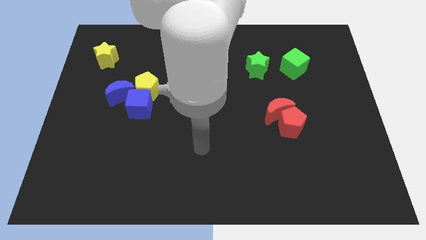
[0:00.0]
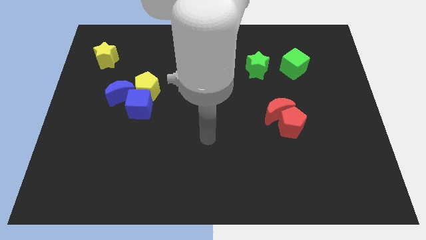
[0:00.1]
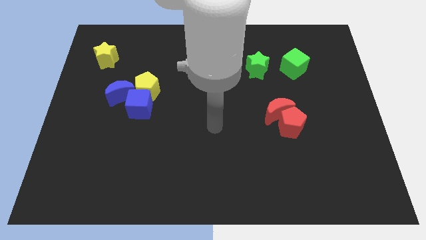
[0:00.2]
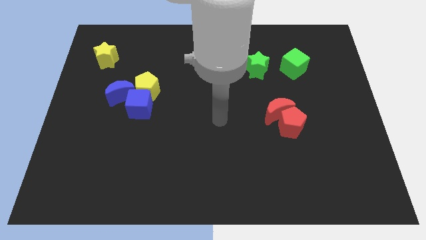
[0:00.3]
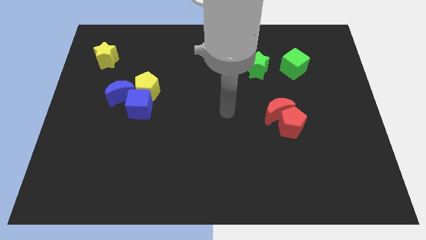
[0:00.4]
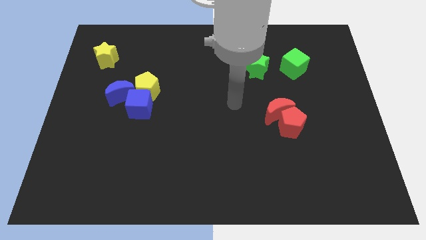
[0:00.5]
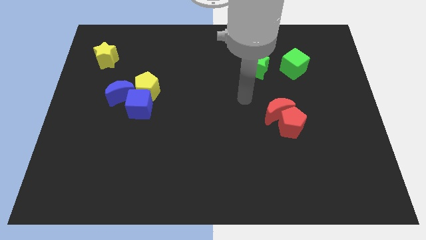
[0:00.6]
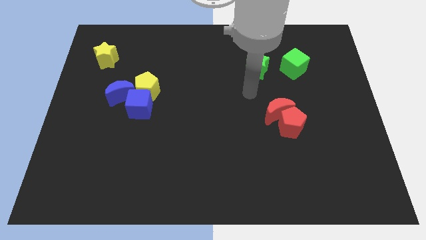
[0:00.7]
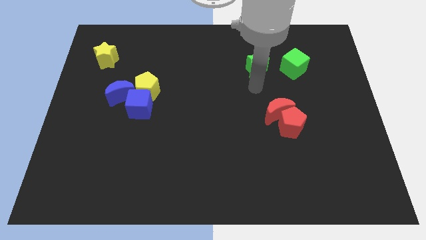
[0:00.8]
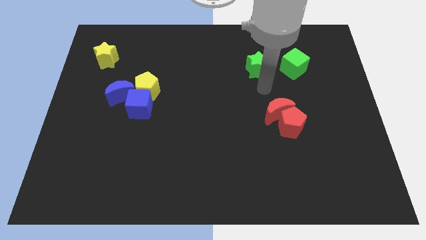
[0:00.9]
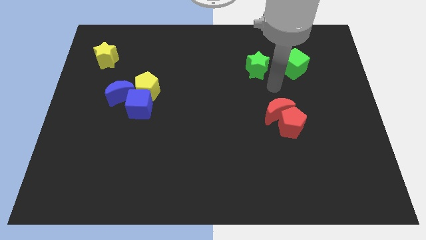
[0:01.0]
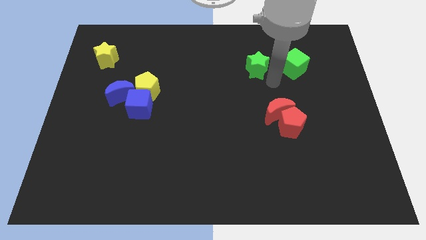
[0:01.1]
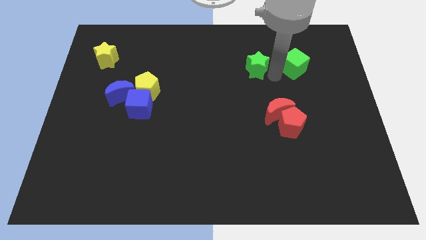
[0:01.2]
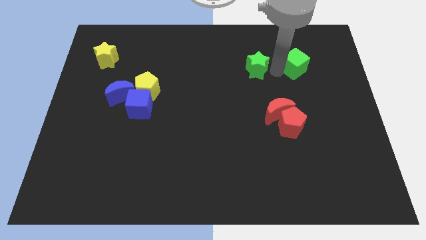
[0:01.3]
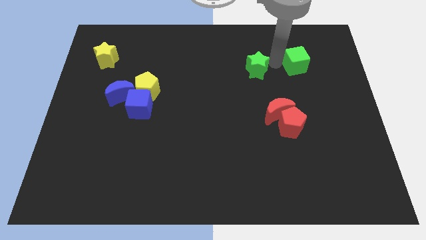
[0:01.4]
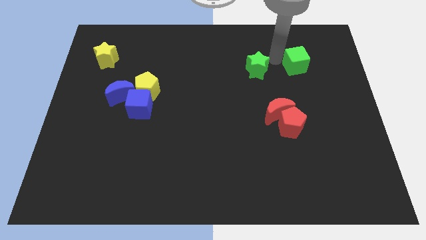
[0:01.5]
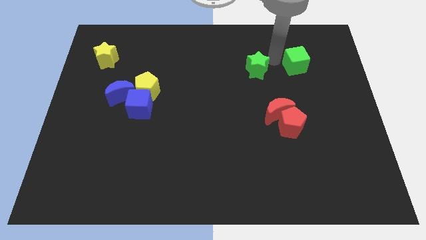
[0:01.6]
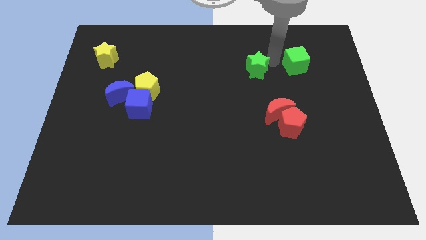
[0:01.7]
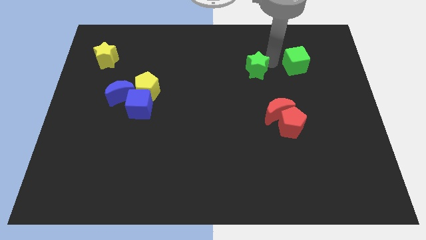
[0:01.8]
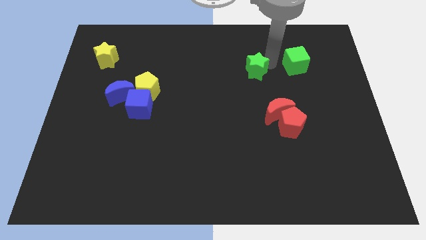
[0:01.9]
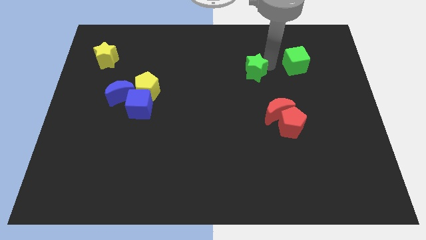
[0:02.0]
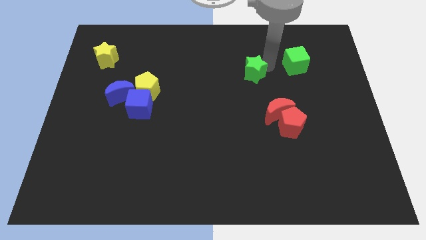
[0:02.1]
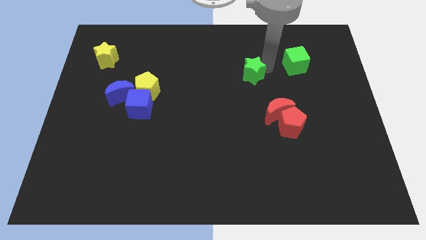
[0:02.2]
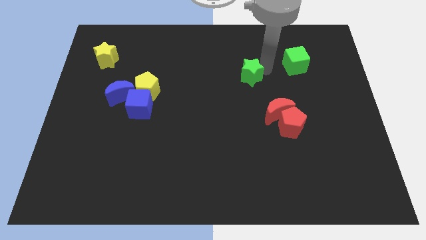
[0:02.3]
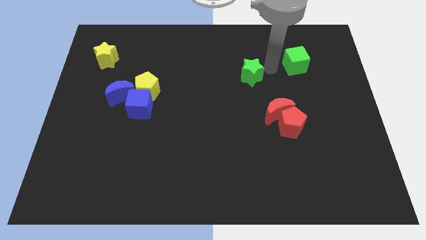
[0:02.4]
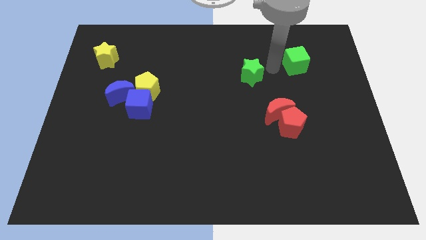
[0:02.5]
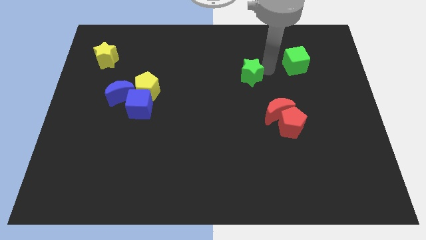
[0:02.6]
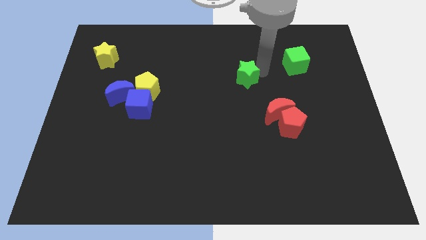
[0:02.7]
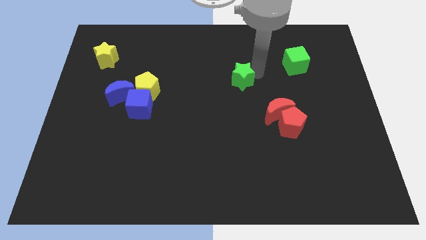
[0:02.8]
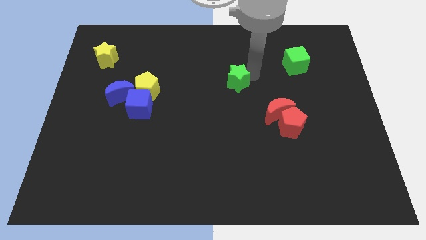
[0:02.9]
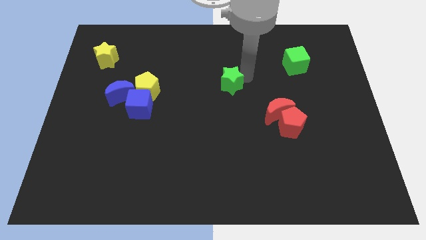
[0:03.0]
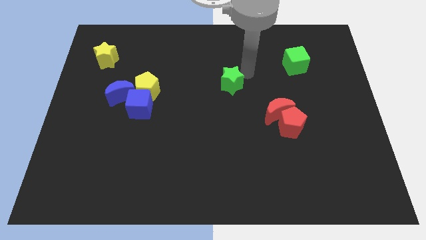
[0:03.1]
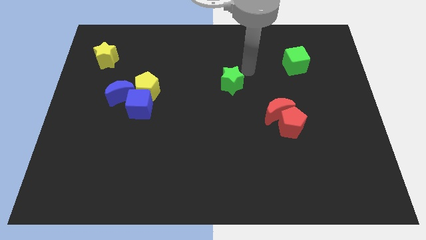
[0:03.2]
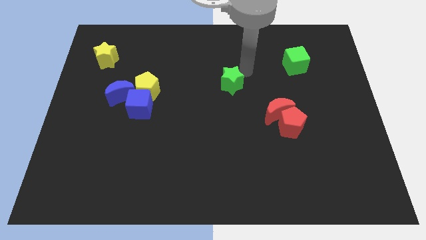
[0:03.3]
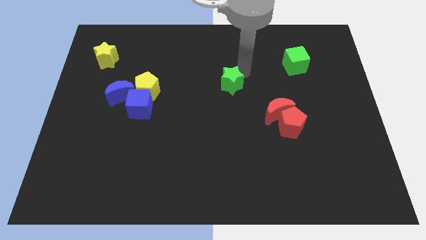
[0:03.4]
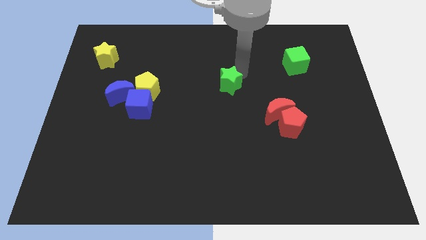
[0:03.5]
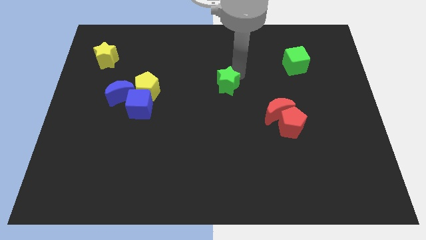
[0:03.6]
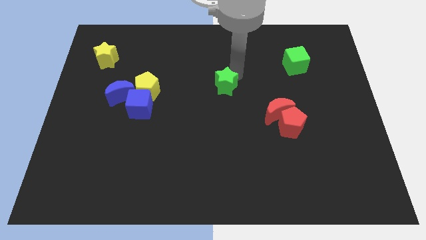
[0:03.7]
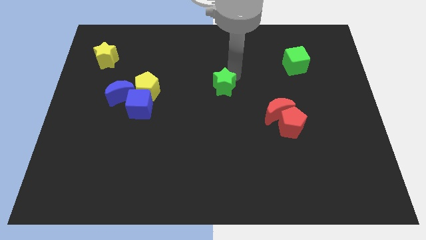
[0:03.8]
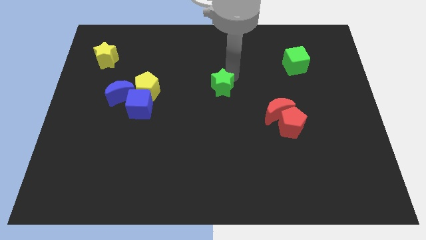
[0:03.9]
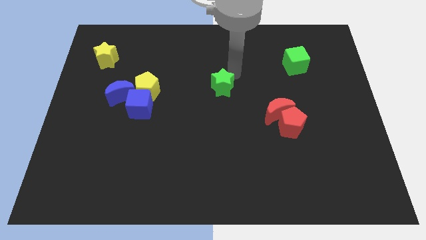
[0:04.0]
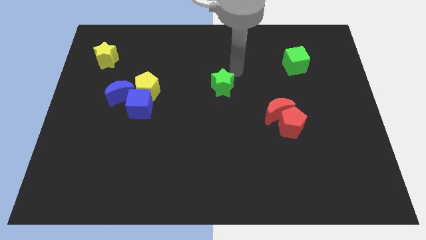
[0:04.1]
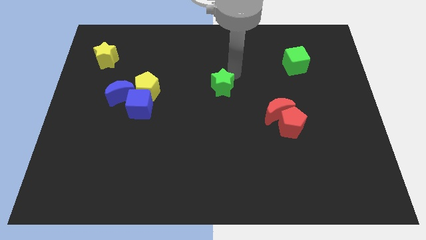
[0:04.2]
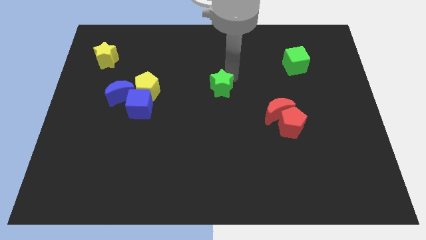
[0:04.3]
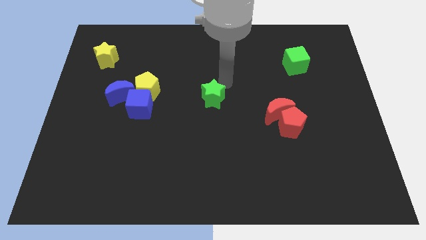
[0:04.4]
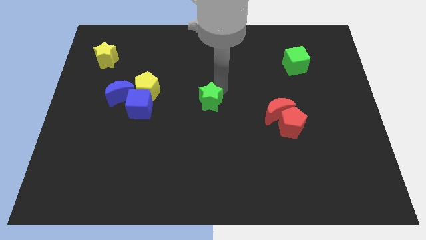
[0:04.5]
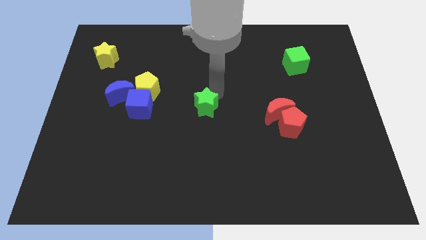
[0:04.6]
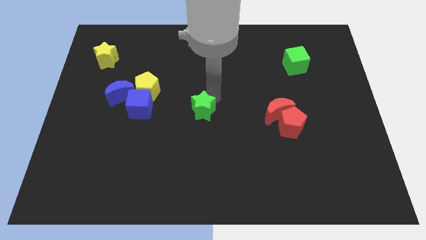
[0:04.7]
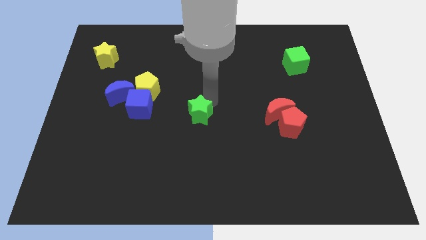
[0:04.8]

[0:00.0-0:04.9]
push the green star diagonally down and to the left

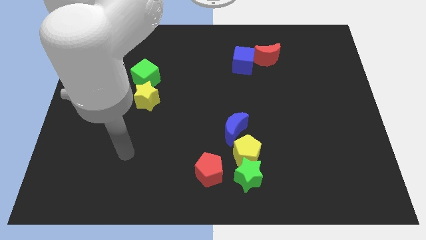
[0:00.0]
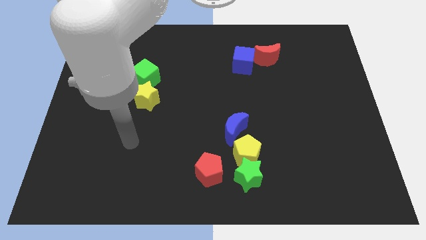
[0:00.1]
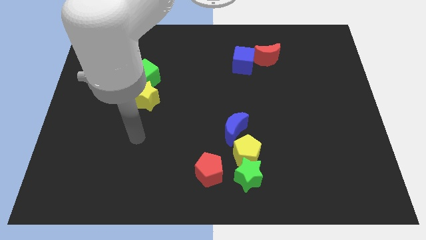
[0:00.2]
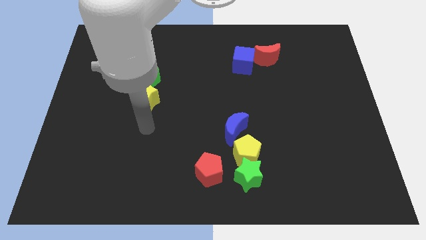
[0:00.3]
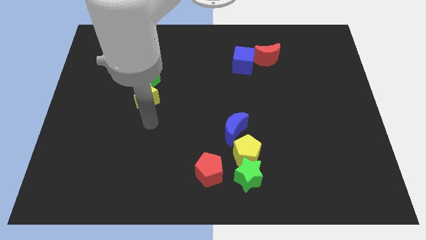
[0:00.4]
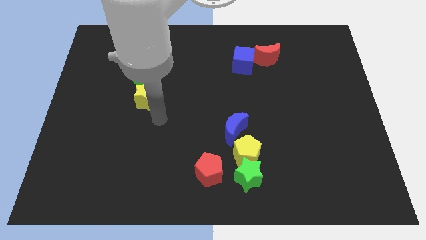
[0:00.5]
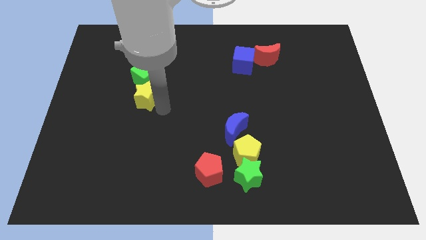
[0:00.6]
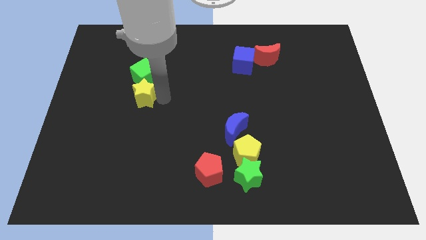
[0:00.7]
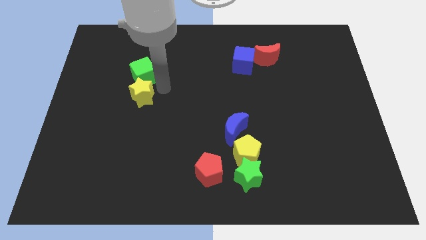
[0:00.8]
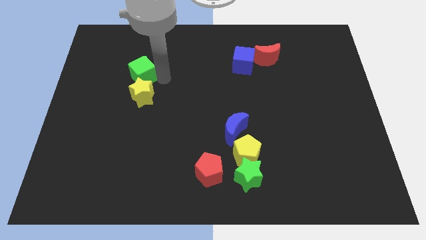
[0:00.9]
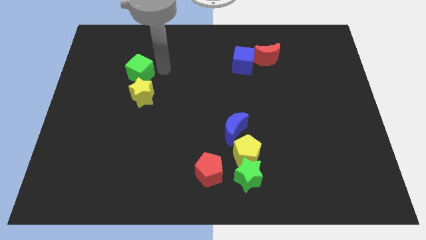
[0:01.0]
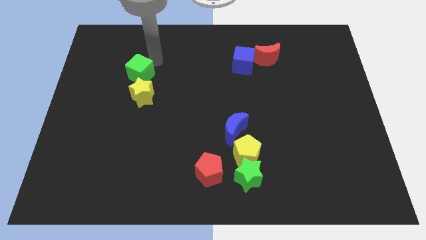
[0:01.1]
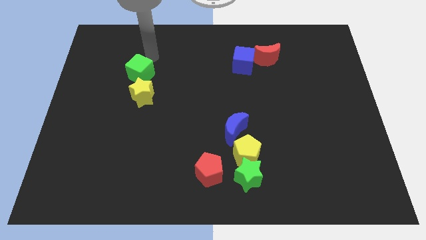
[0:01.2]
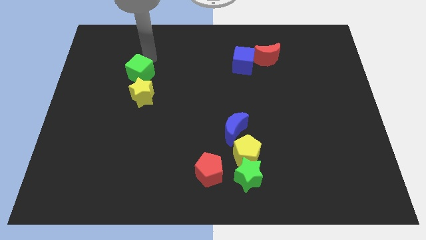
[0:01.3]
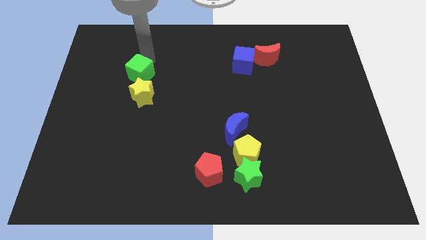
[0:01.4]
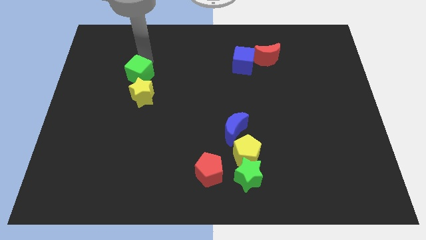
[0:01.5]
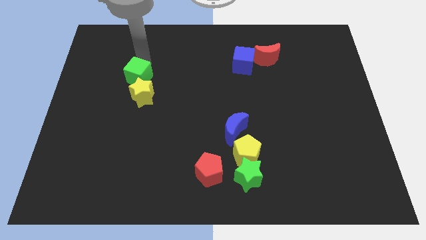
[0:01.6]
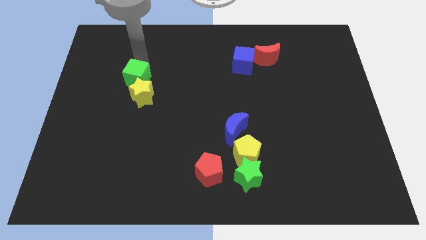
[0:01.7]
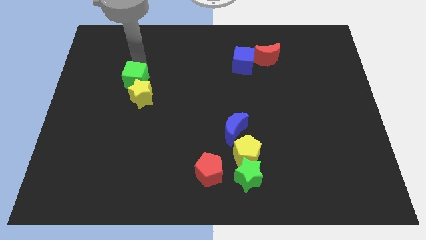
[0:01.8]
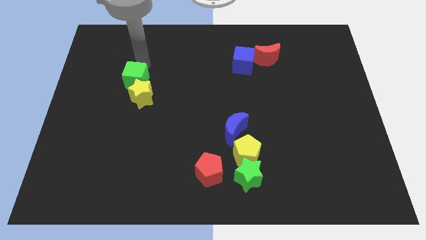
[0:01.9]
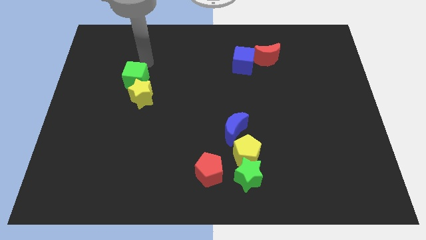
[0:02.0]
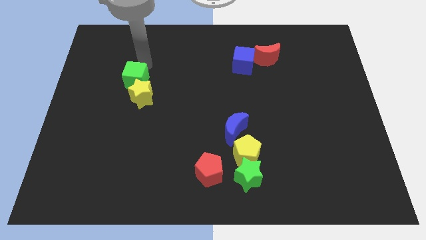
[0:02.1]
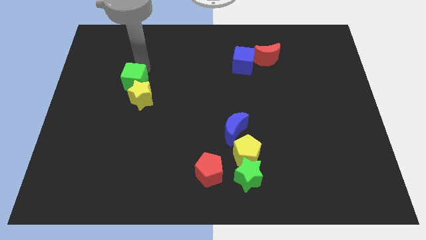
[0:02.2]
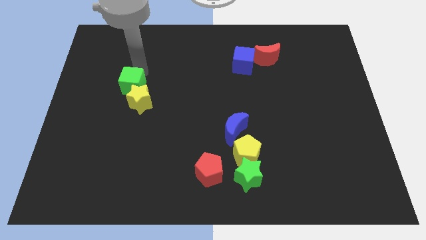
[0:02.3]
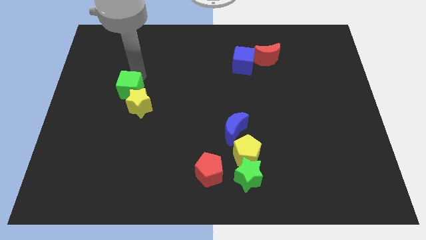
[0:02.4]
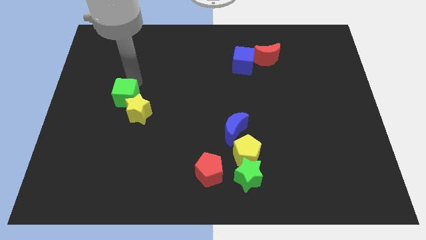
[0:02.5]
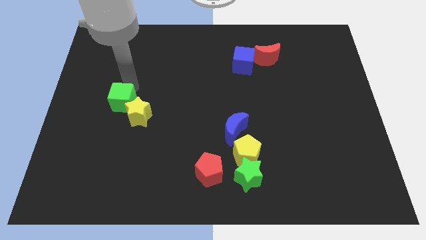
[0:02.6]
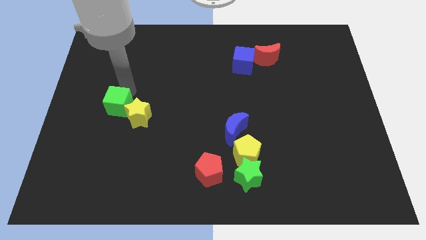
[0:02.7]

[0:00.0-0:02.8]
slightly move the green cube downwards

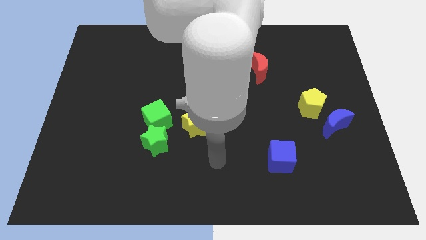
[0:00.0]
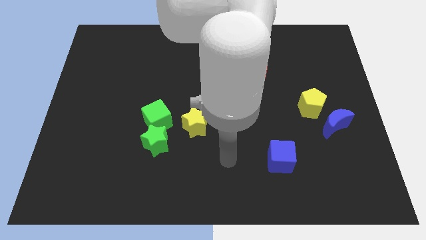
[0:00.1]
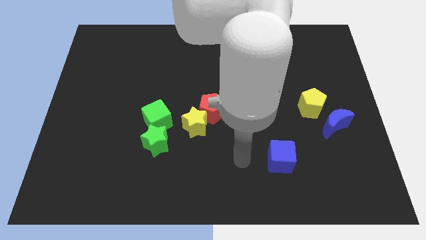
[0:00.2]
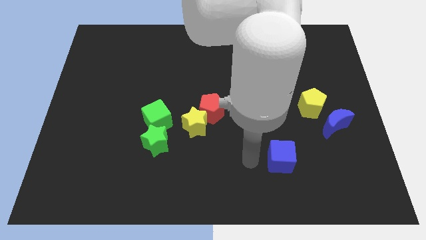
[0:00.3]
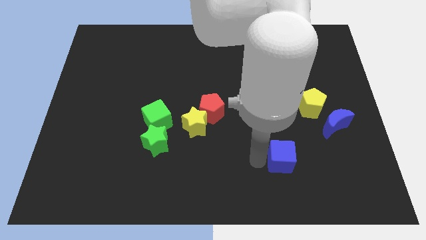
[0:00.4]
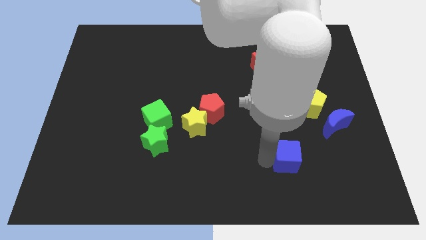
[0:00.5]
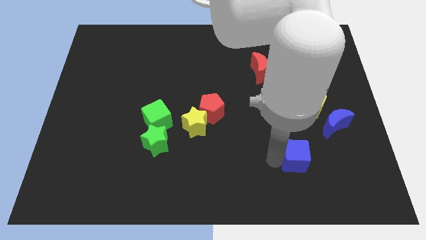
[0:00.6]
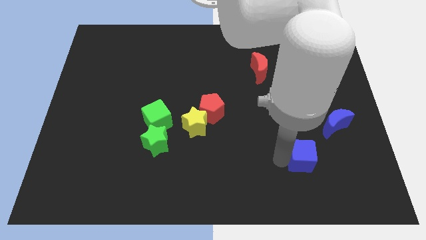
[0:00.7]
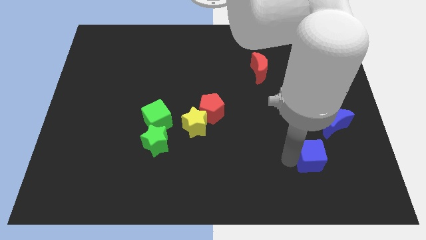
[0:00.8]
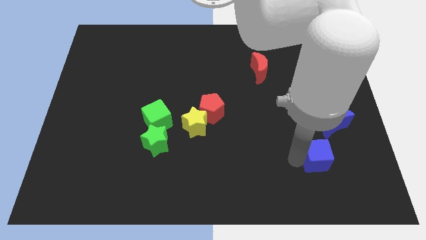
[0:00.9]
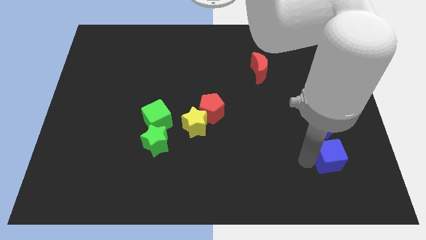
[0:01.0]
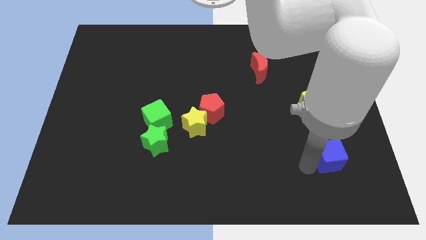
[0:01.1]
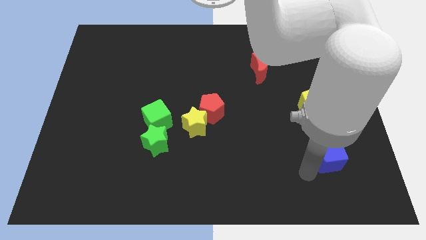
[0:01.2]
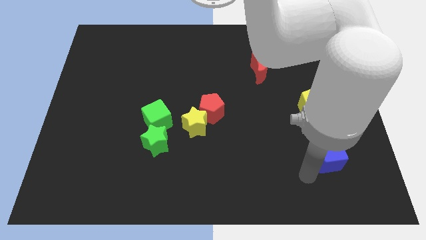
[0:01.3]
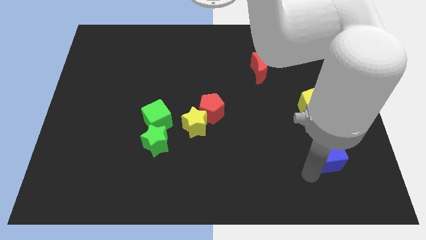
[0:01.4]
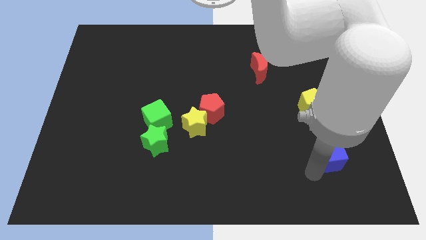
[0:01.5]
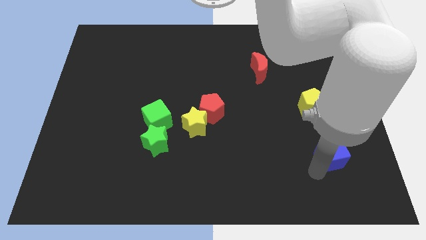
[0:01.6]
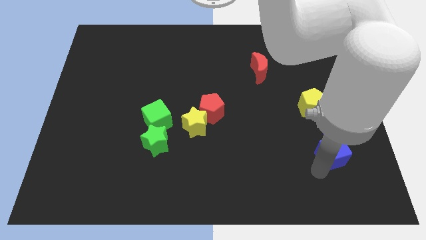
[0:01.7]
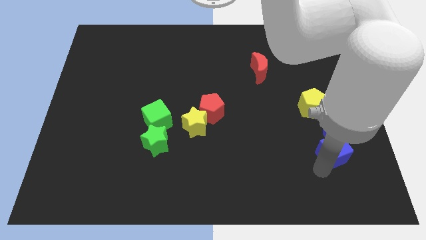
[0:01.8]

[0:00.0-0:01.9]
push the blue cube a little bit diagonally upwards and right
